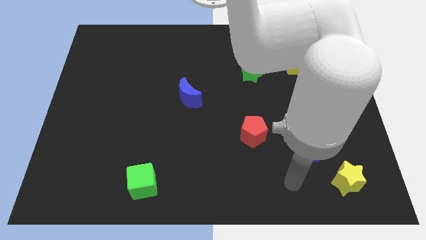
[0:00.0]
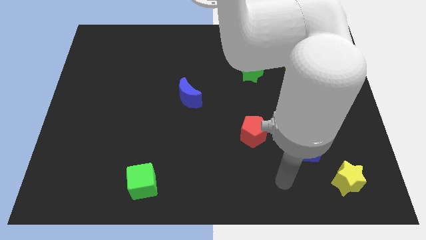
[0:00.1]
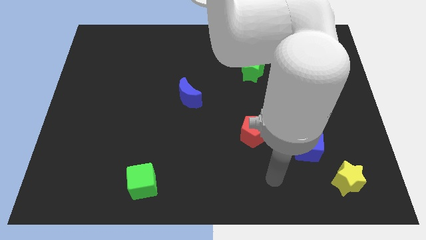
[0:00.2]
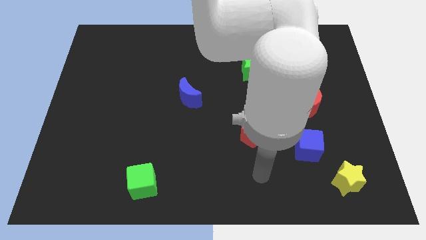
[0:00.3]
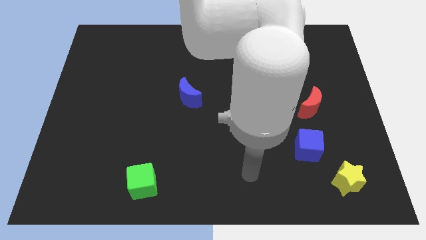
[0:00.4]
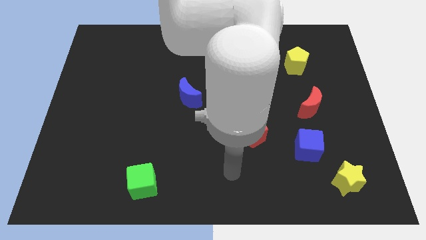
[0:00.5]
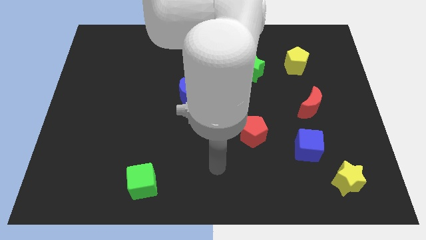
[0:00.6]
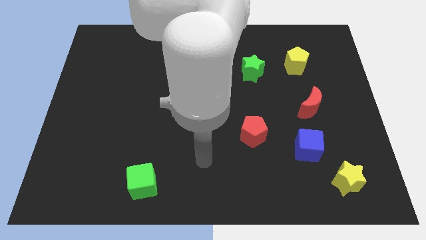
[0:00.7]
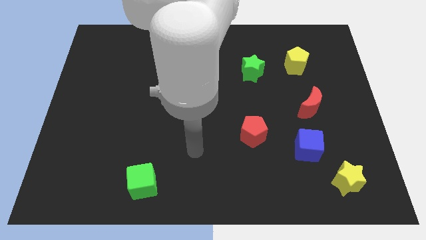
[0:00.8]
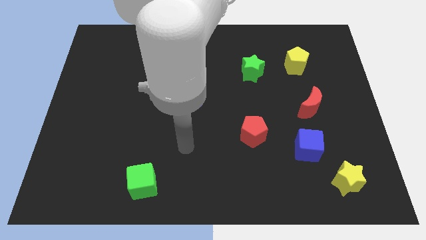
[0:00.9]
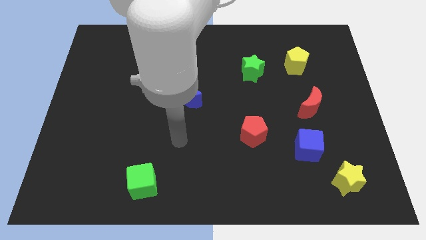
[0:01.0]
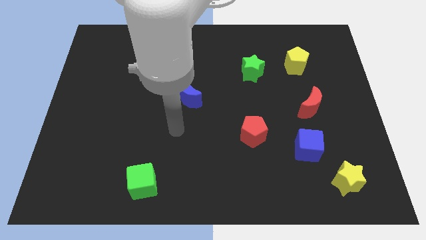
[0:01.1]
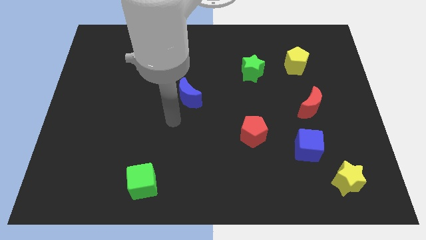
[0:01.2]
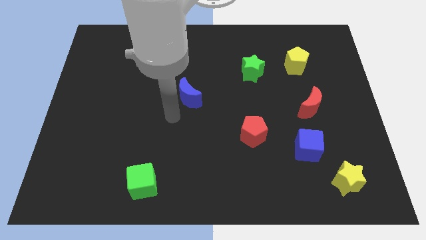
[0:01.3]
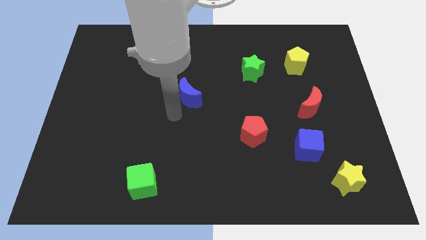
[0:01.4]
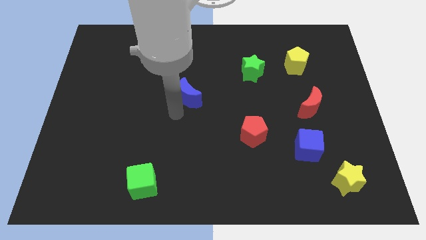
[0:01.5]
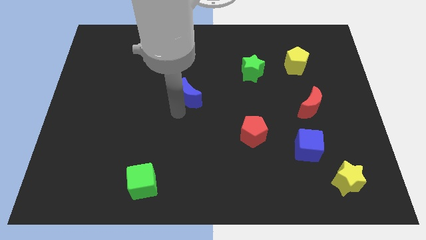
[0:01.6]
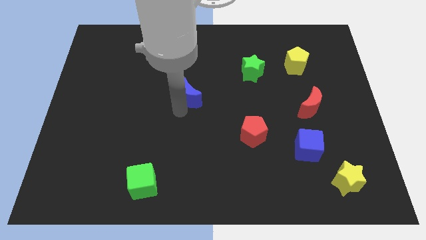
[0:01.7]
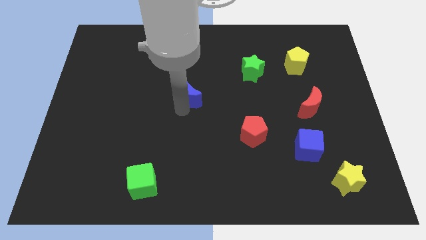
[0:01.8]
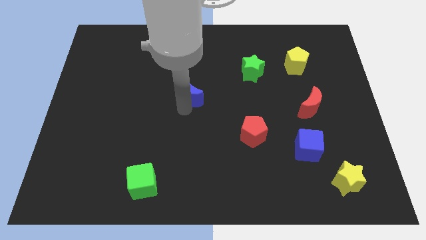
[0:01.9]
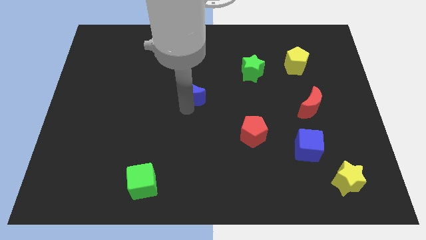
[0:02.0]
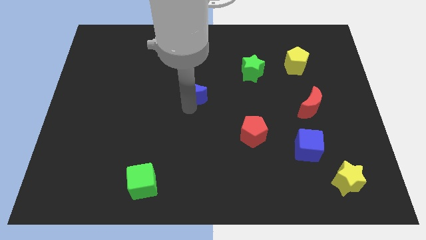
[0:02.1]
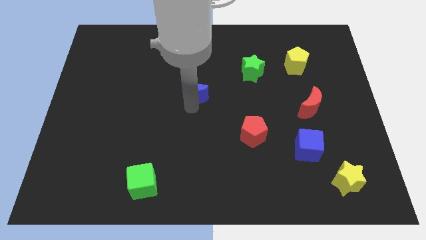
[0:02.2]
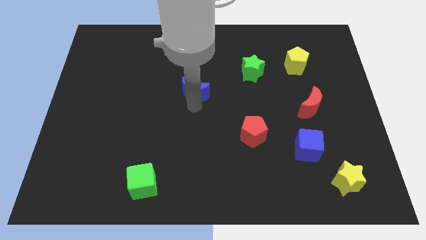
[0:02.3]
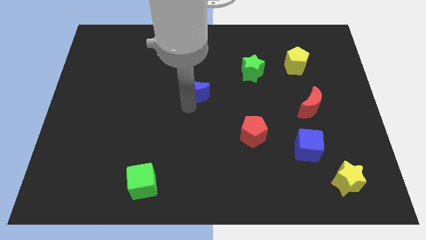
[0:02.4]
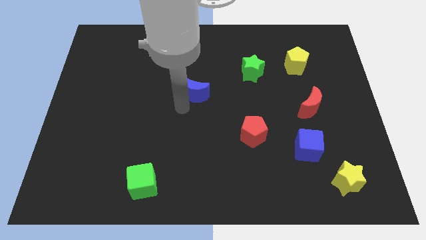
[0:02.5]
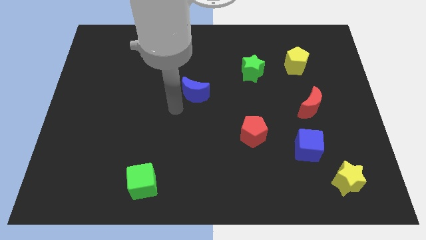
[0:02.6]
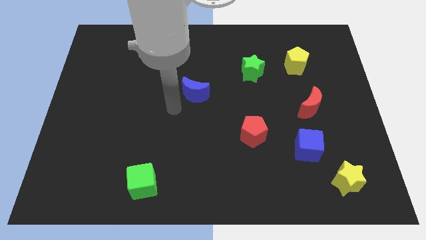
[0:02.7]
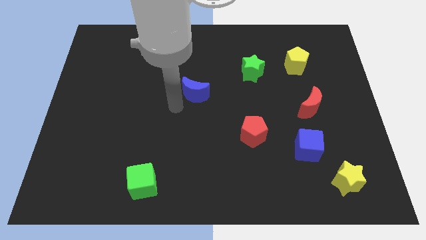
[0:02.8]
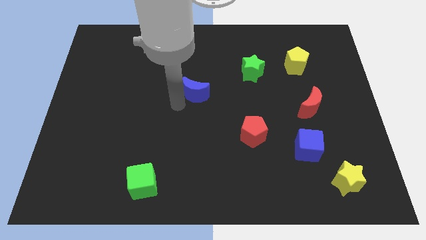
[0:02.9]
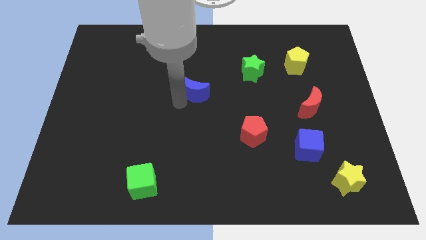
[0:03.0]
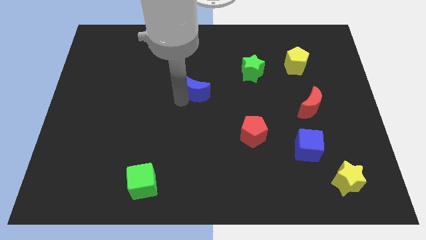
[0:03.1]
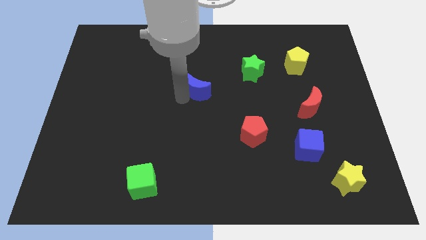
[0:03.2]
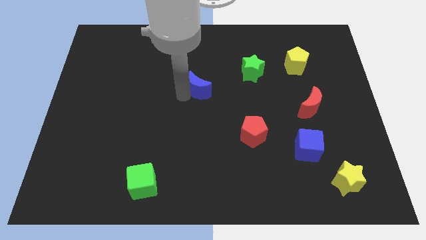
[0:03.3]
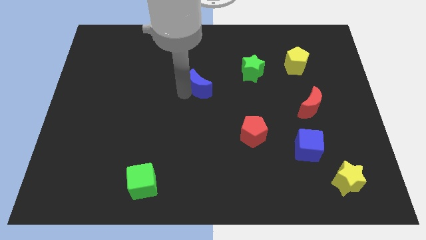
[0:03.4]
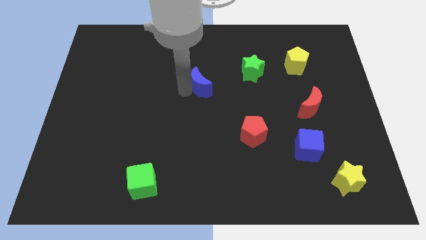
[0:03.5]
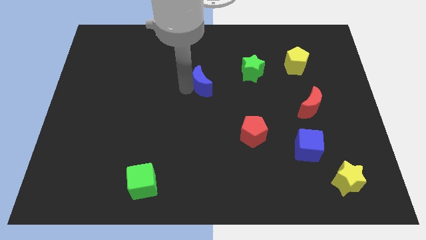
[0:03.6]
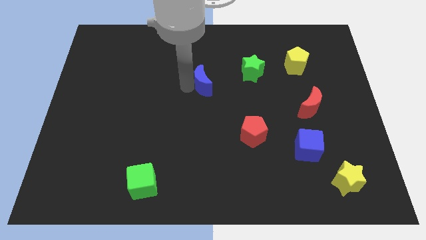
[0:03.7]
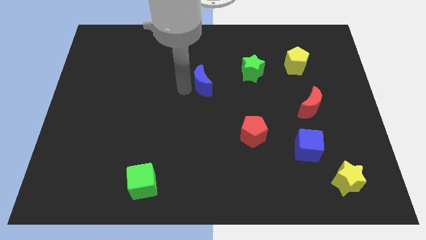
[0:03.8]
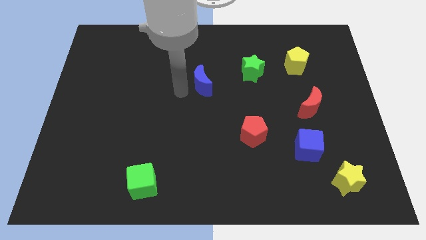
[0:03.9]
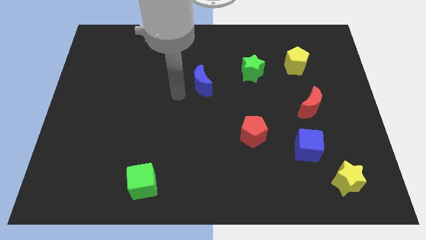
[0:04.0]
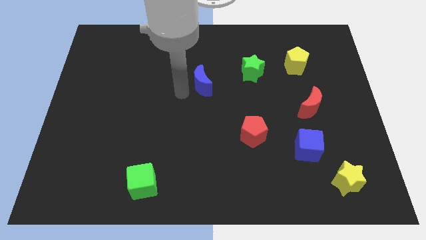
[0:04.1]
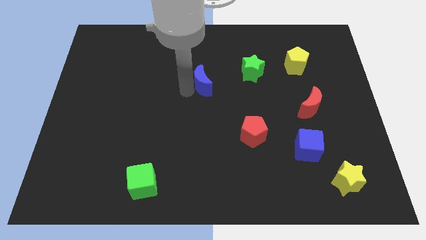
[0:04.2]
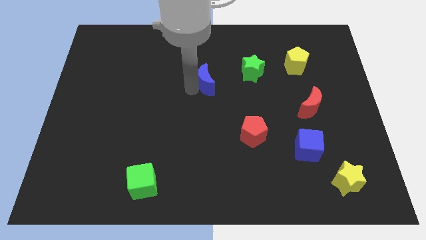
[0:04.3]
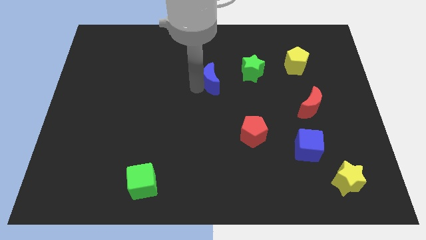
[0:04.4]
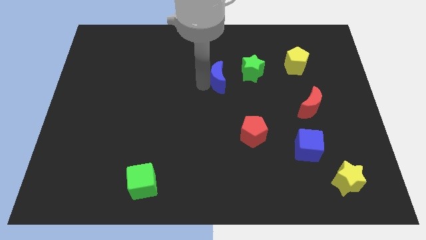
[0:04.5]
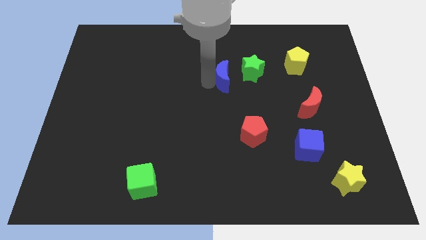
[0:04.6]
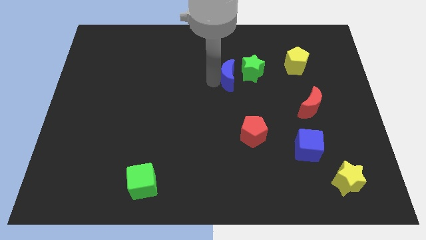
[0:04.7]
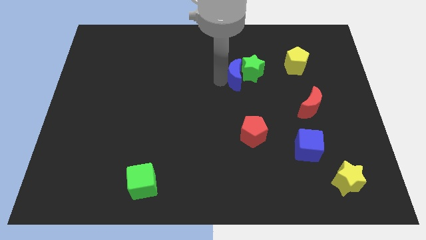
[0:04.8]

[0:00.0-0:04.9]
put the blue moon towards the green star

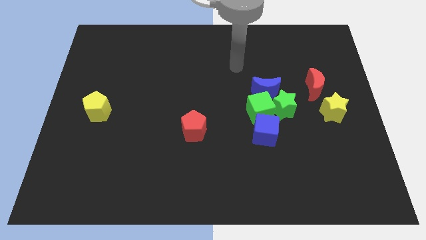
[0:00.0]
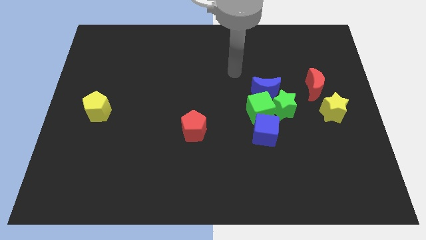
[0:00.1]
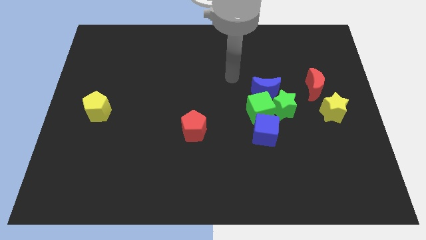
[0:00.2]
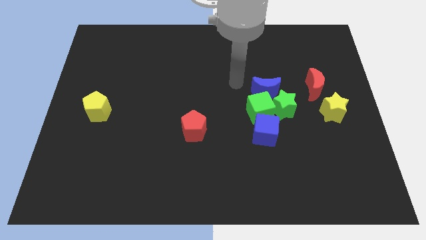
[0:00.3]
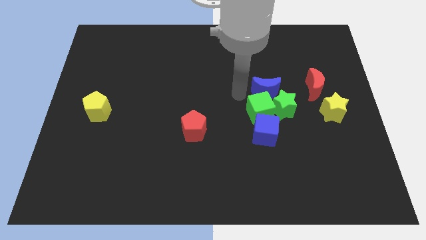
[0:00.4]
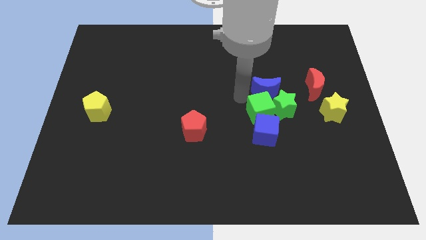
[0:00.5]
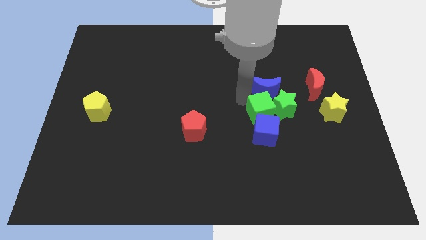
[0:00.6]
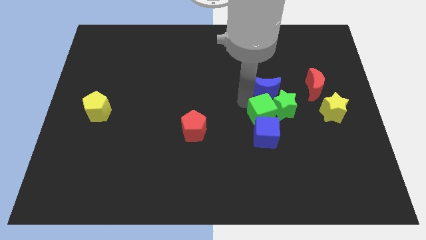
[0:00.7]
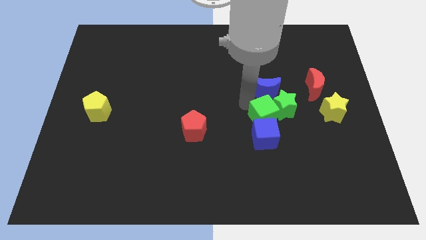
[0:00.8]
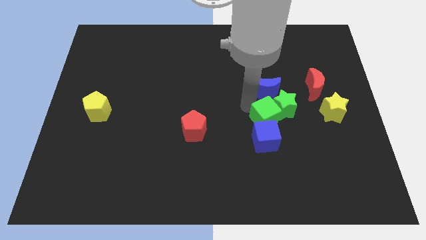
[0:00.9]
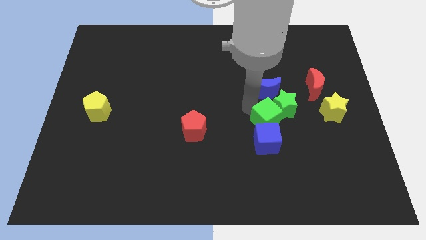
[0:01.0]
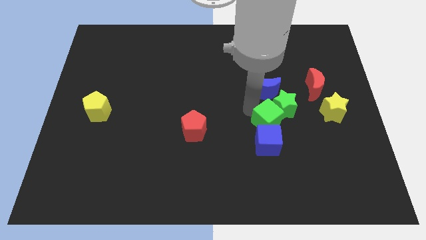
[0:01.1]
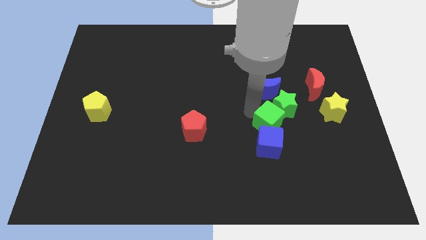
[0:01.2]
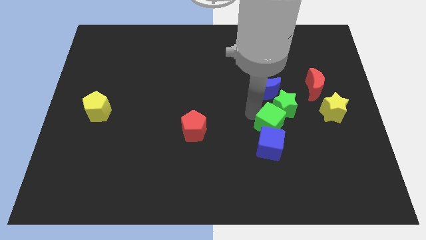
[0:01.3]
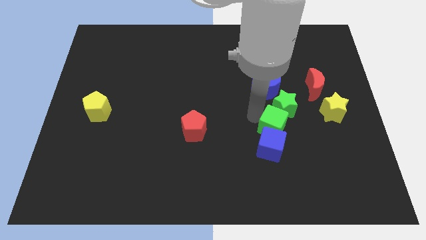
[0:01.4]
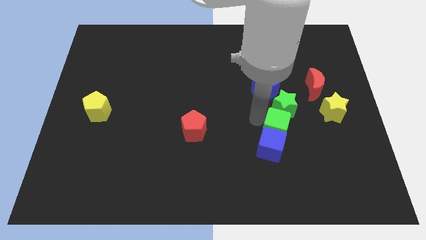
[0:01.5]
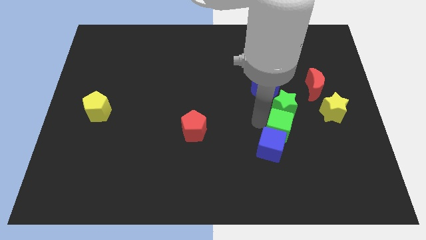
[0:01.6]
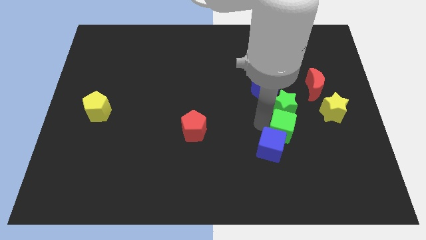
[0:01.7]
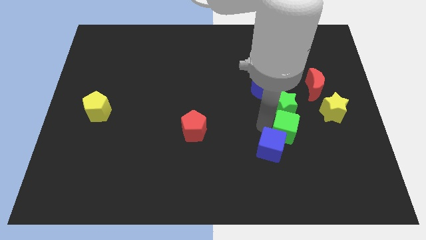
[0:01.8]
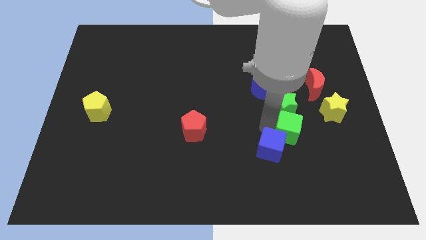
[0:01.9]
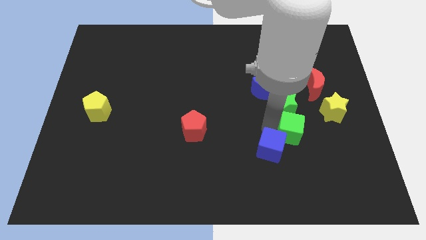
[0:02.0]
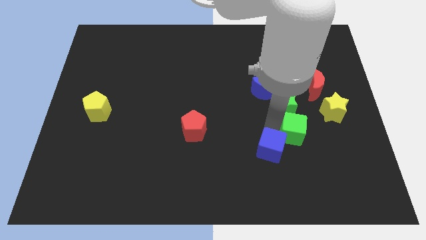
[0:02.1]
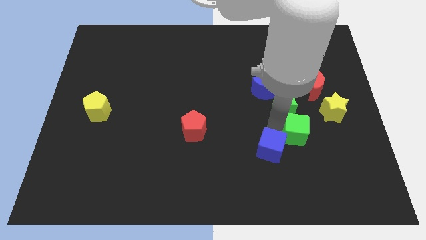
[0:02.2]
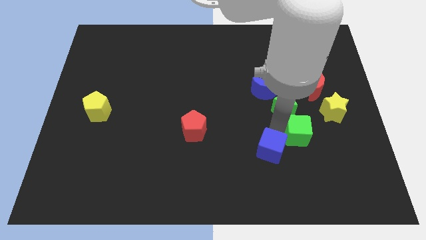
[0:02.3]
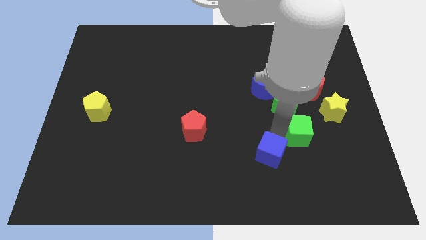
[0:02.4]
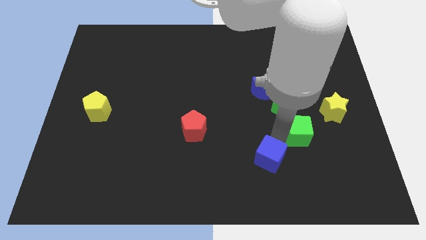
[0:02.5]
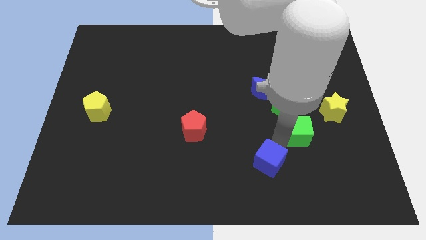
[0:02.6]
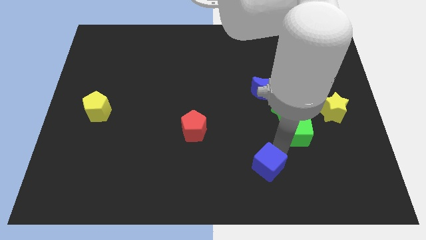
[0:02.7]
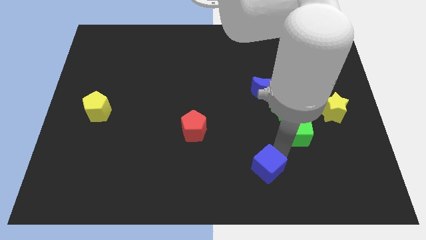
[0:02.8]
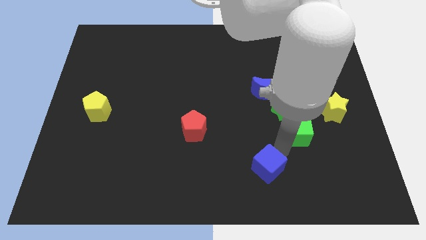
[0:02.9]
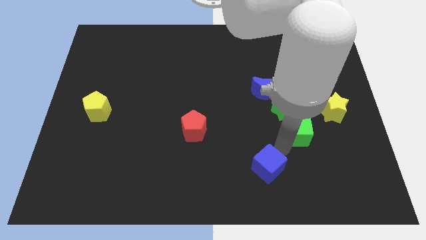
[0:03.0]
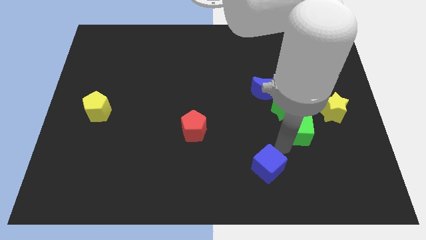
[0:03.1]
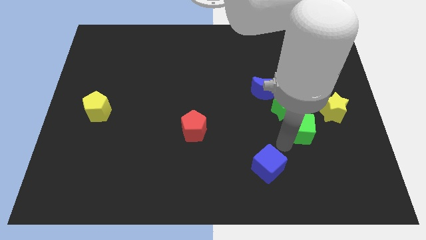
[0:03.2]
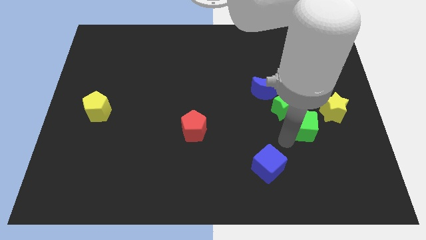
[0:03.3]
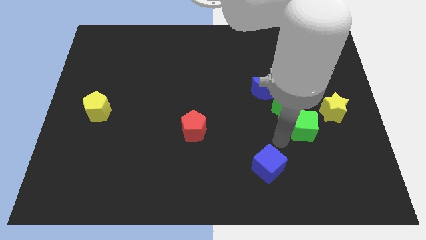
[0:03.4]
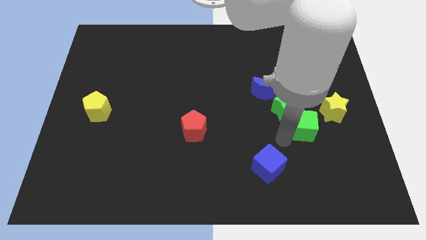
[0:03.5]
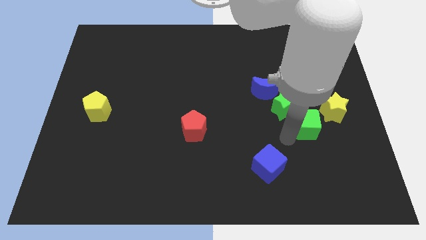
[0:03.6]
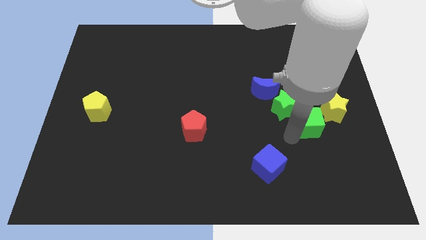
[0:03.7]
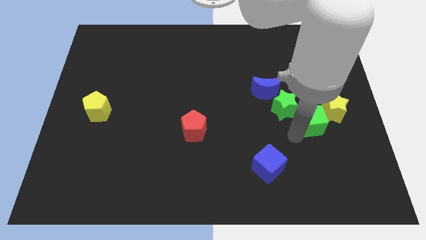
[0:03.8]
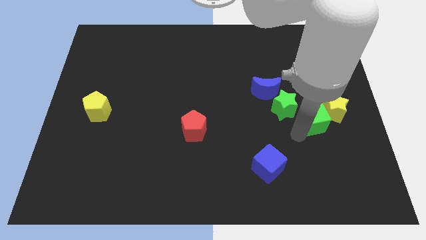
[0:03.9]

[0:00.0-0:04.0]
push the green cube to the yellow star
